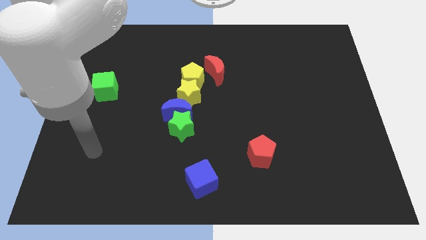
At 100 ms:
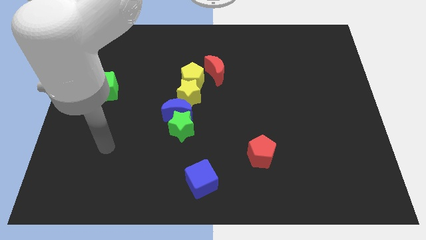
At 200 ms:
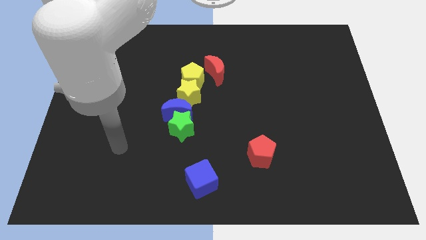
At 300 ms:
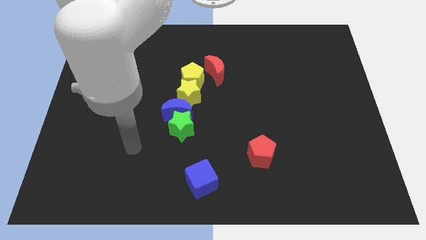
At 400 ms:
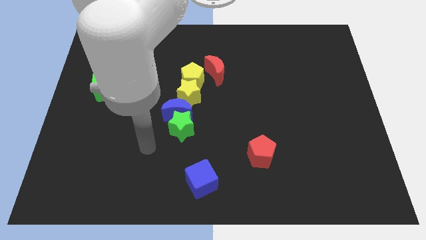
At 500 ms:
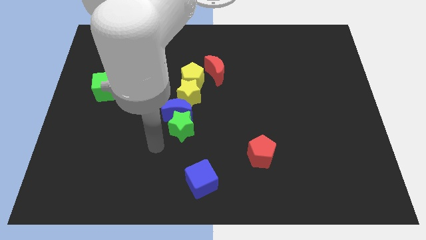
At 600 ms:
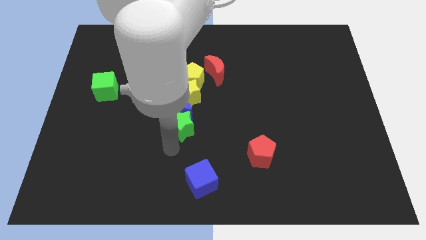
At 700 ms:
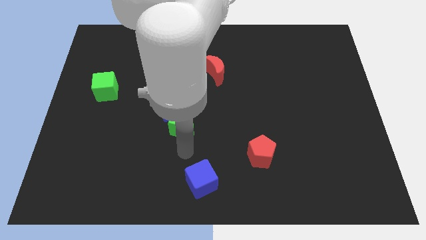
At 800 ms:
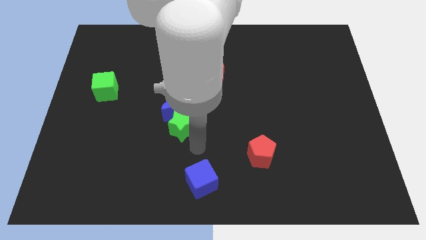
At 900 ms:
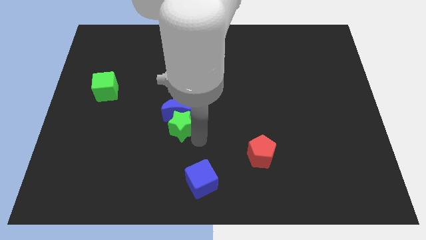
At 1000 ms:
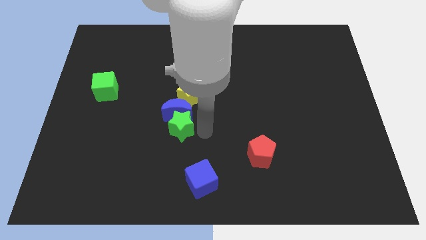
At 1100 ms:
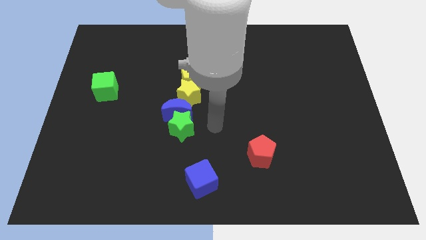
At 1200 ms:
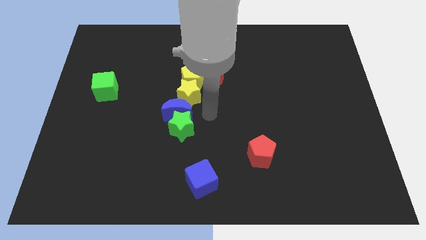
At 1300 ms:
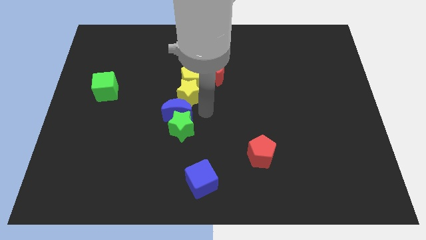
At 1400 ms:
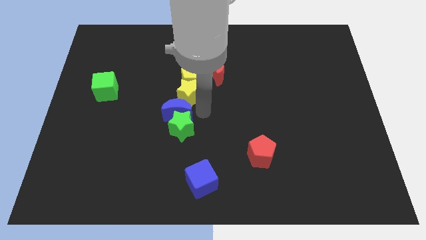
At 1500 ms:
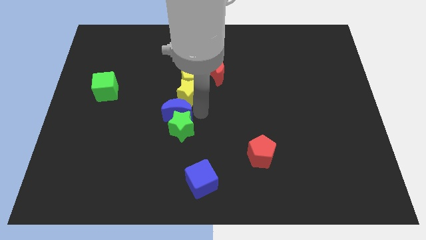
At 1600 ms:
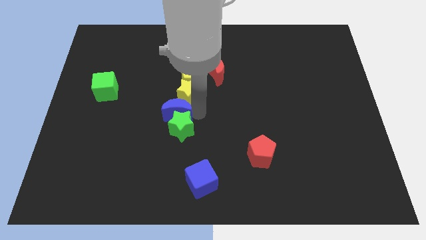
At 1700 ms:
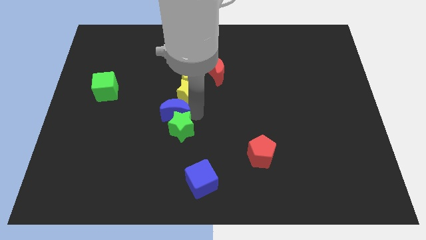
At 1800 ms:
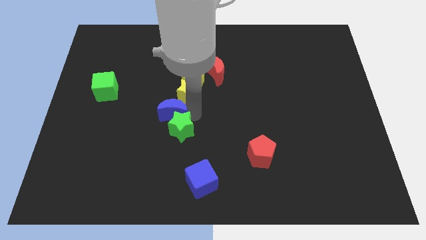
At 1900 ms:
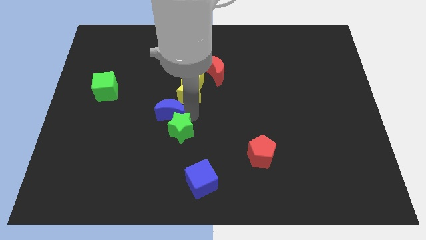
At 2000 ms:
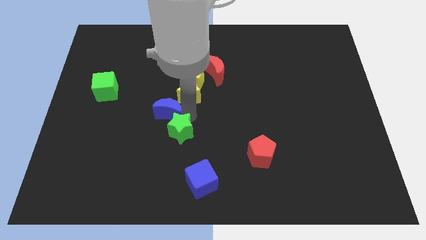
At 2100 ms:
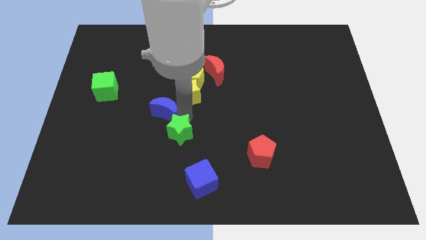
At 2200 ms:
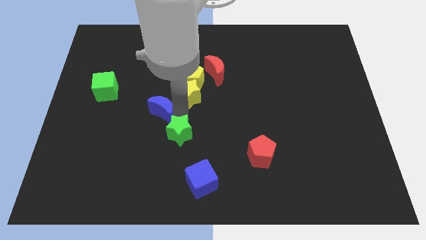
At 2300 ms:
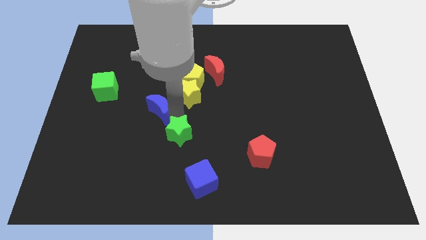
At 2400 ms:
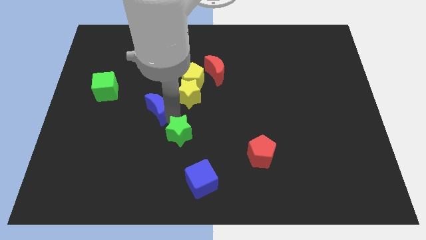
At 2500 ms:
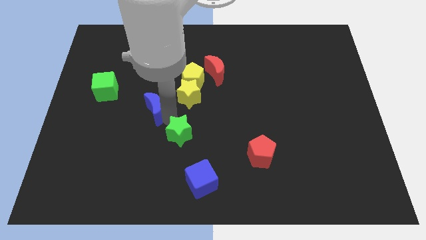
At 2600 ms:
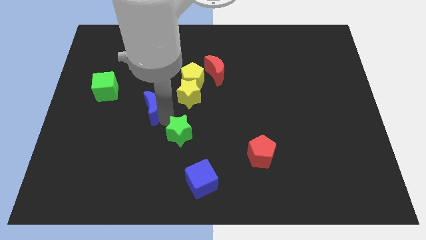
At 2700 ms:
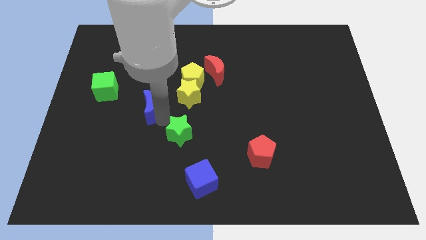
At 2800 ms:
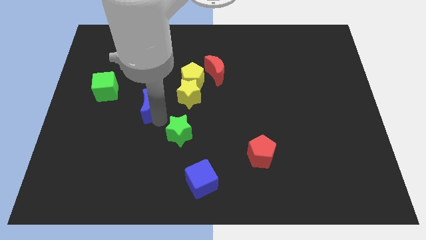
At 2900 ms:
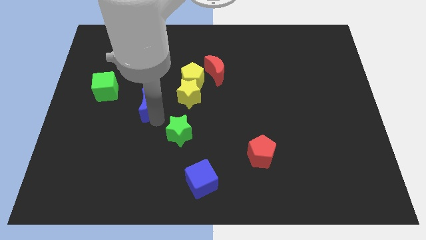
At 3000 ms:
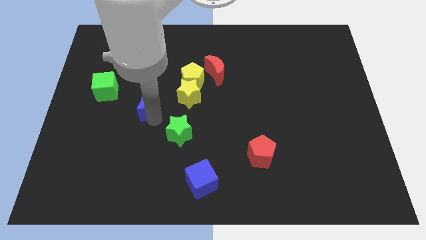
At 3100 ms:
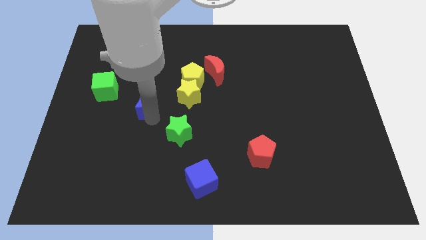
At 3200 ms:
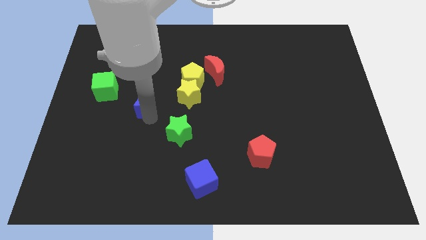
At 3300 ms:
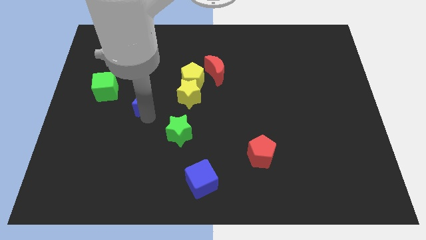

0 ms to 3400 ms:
move the blue moon away from the green star and yellow star

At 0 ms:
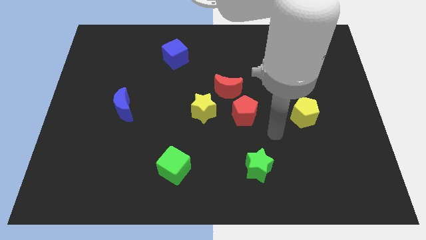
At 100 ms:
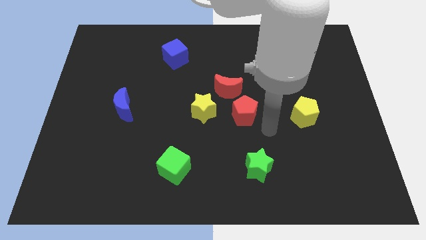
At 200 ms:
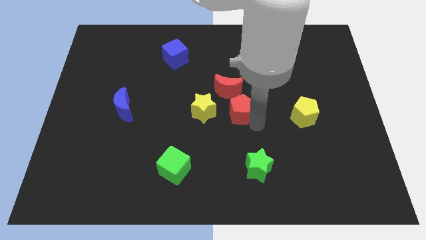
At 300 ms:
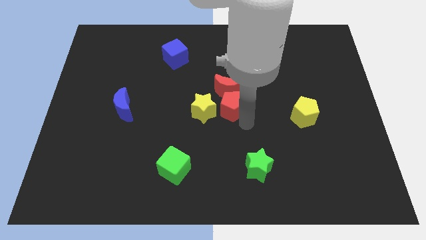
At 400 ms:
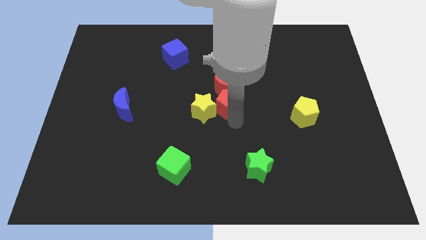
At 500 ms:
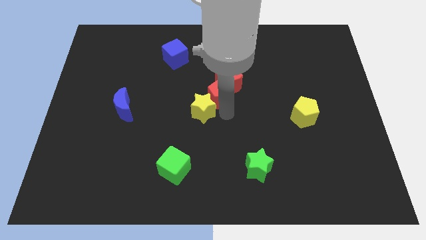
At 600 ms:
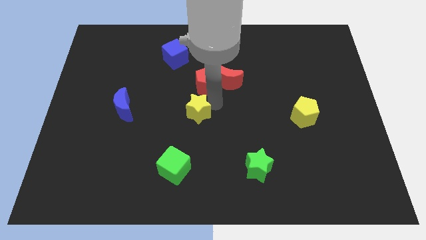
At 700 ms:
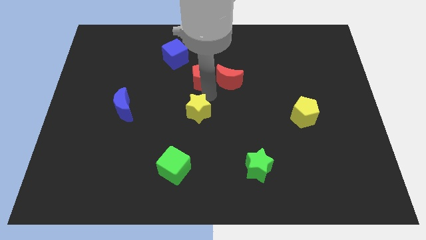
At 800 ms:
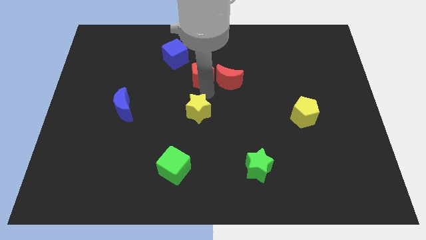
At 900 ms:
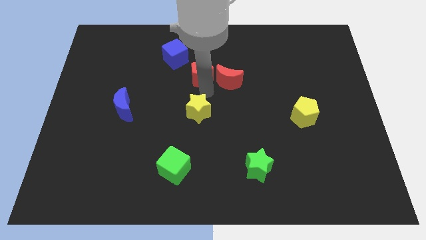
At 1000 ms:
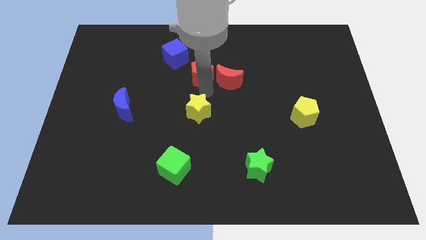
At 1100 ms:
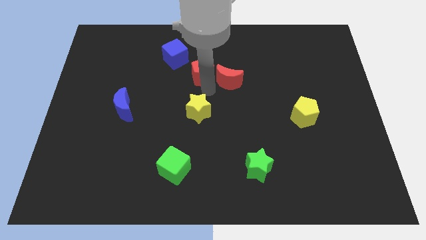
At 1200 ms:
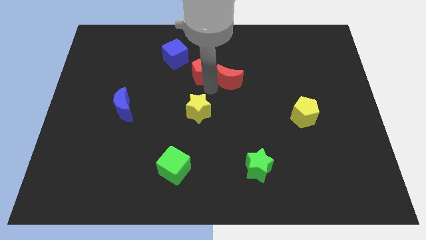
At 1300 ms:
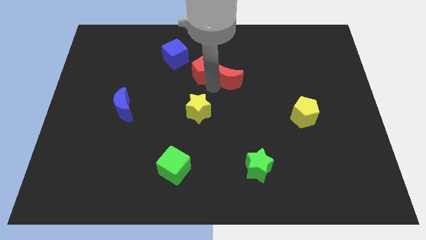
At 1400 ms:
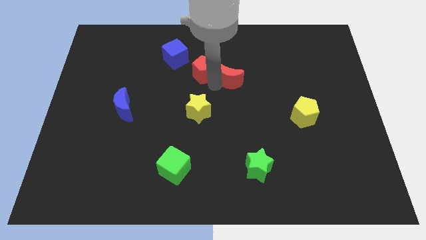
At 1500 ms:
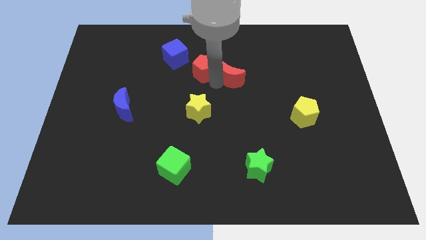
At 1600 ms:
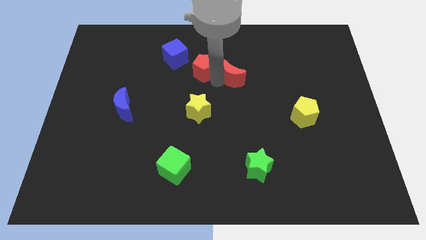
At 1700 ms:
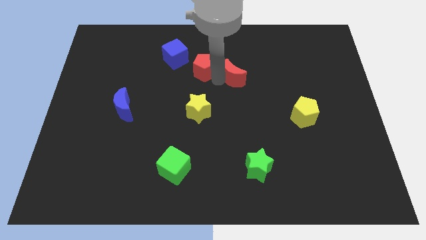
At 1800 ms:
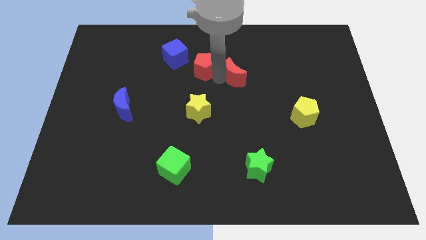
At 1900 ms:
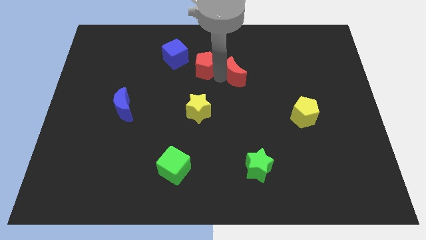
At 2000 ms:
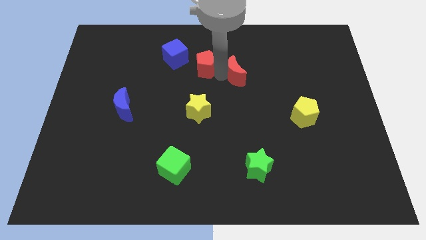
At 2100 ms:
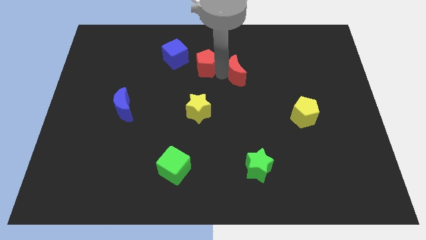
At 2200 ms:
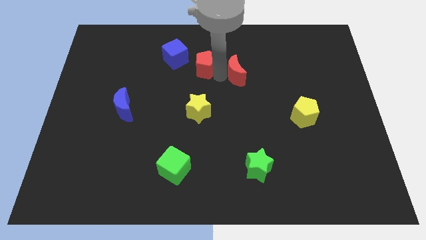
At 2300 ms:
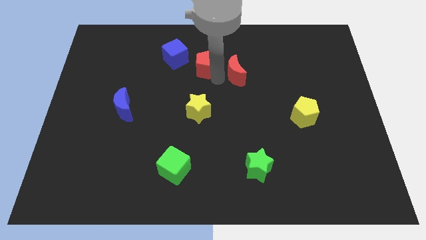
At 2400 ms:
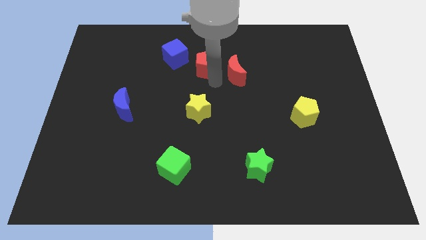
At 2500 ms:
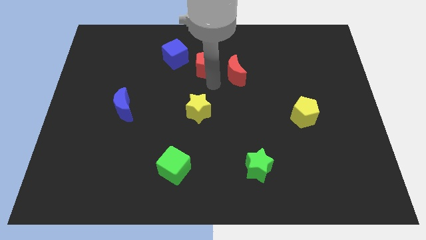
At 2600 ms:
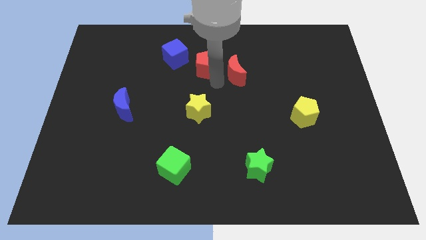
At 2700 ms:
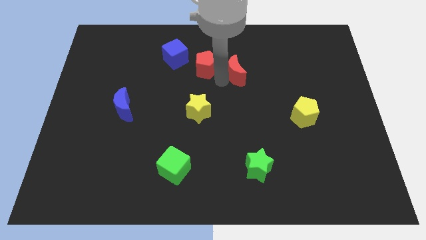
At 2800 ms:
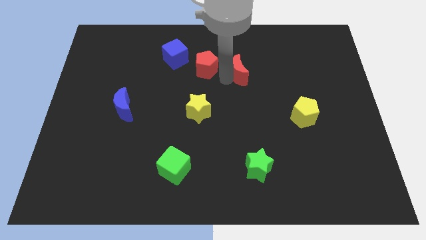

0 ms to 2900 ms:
pull the red moon apart from the red pentagon and yellow star

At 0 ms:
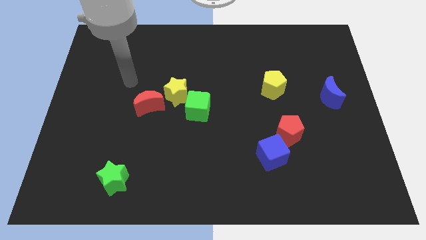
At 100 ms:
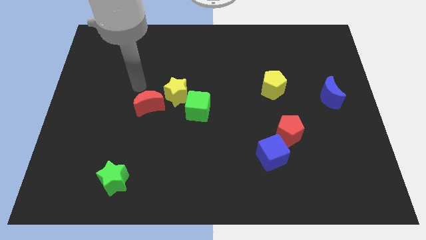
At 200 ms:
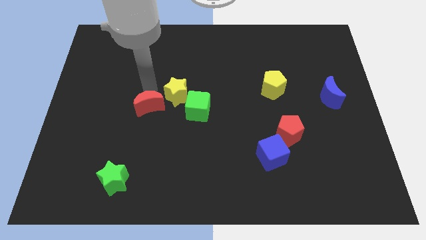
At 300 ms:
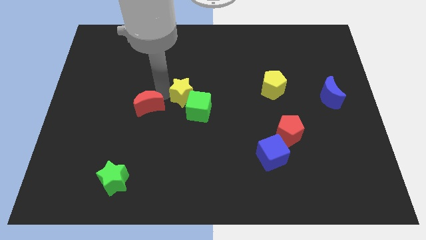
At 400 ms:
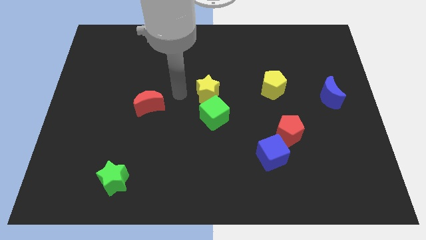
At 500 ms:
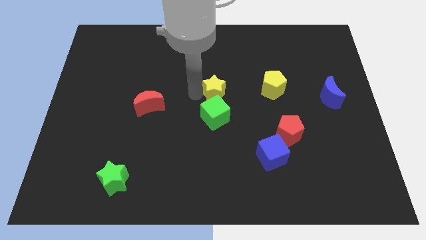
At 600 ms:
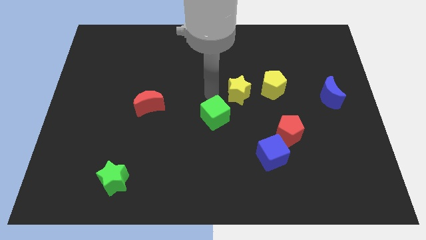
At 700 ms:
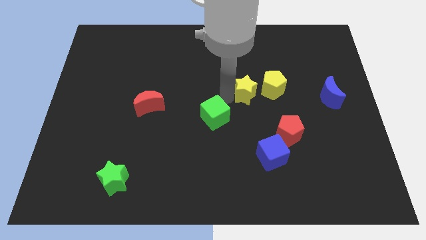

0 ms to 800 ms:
separate the green cube from the yellow star

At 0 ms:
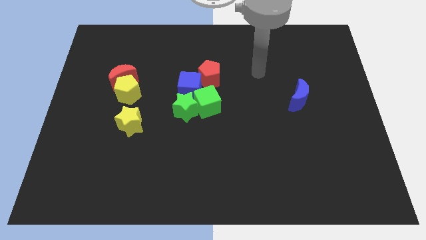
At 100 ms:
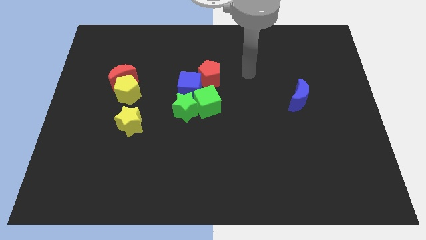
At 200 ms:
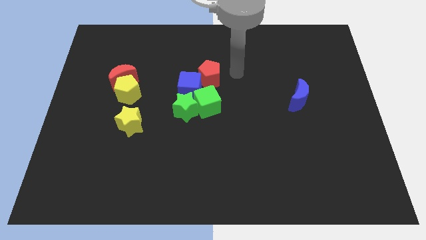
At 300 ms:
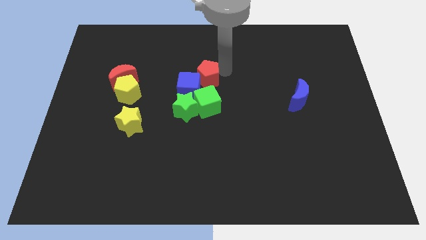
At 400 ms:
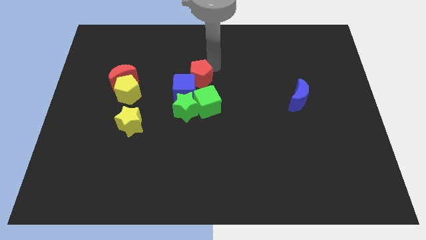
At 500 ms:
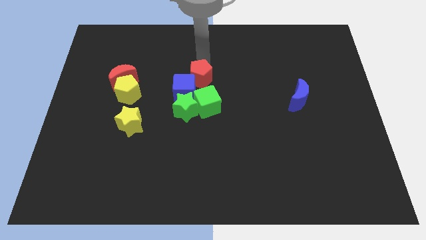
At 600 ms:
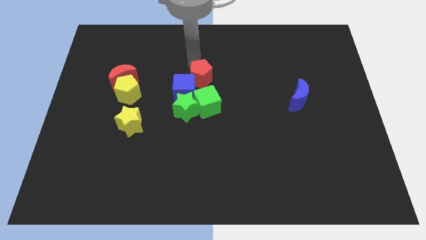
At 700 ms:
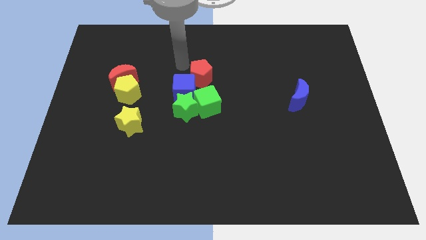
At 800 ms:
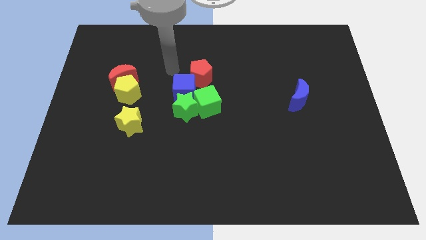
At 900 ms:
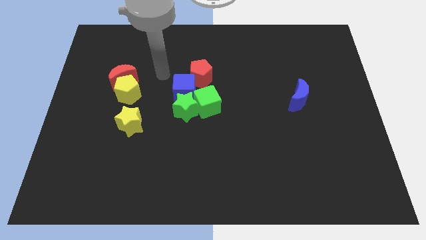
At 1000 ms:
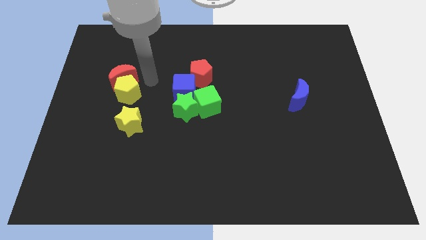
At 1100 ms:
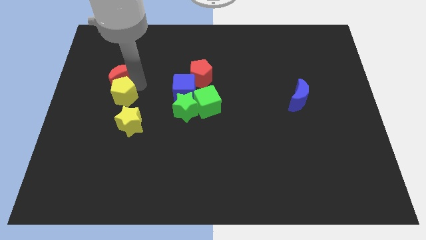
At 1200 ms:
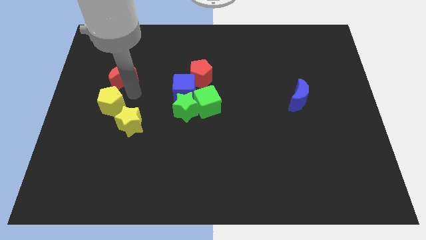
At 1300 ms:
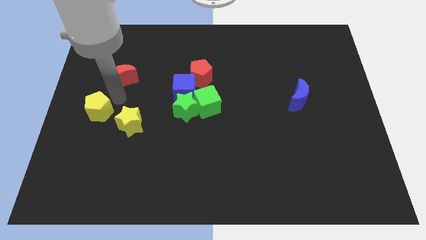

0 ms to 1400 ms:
separate the red moon from the yellow pentagon

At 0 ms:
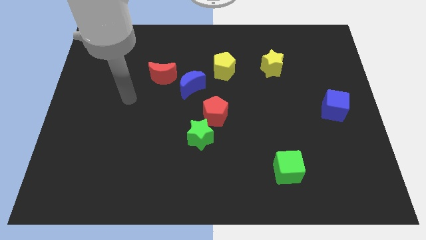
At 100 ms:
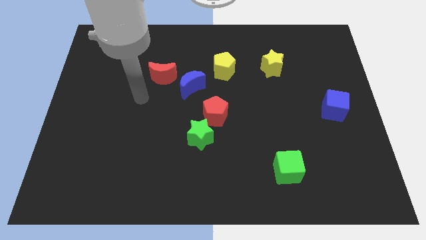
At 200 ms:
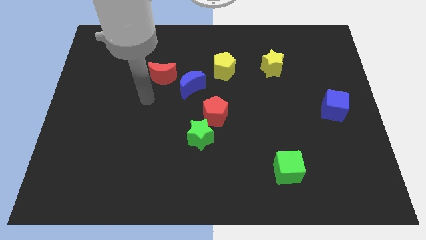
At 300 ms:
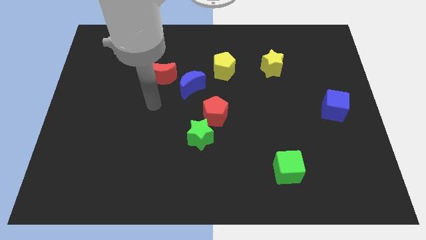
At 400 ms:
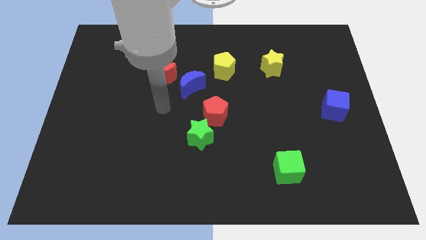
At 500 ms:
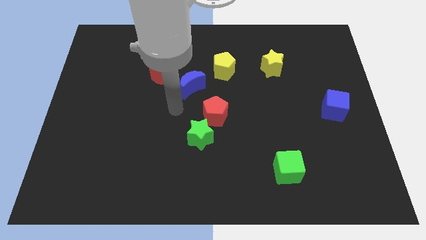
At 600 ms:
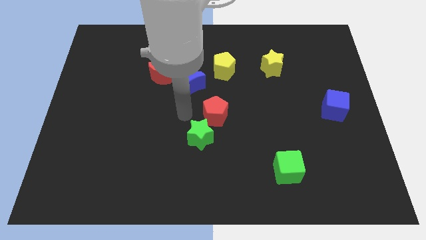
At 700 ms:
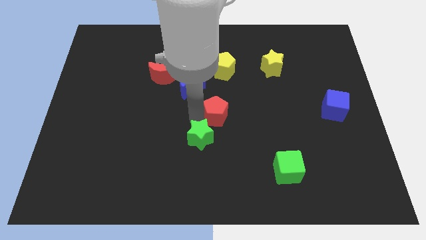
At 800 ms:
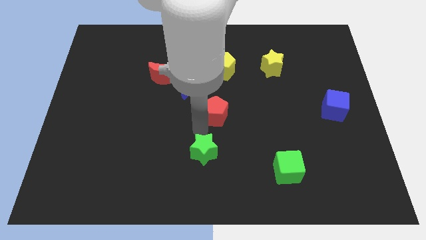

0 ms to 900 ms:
separate the red pentagon from the green star
